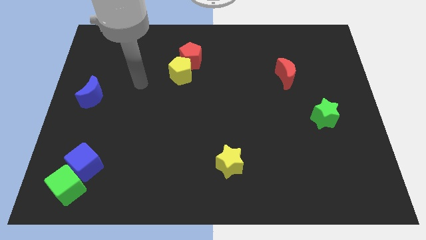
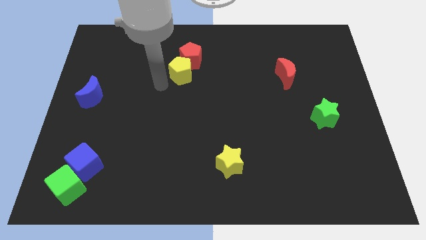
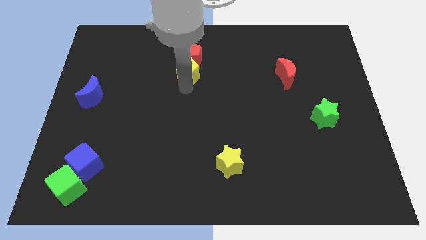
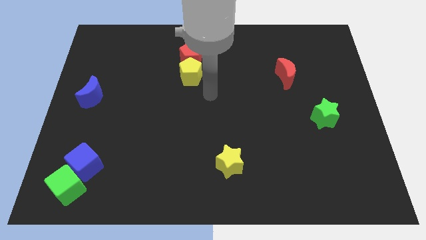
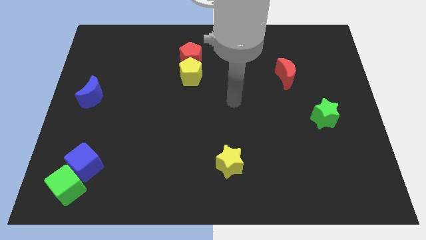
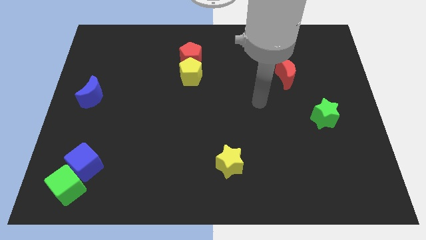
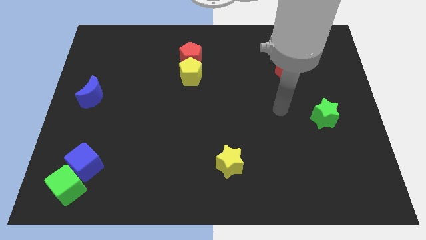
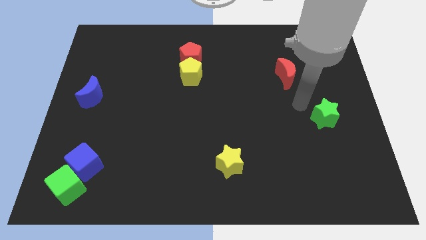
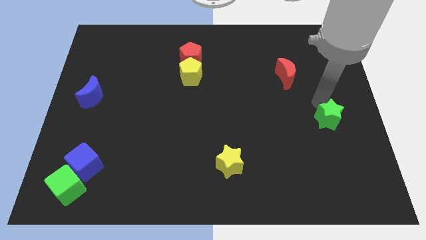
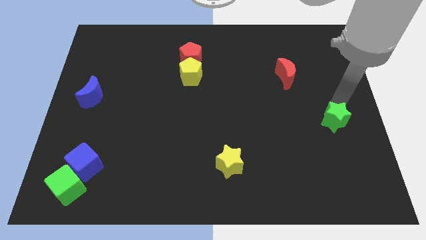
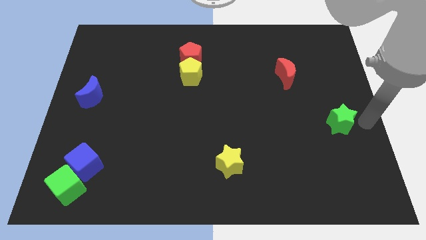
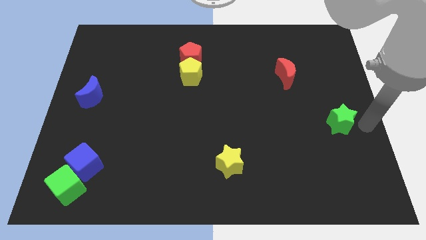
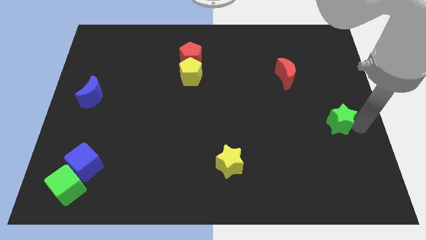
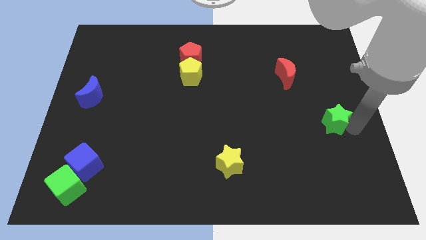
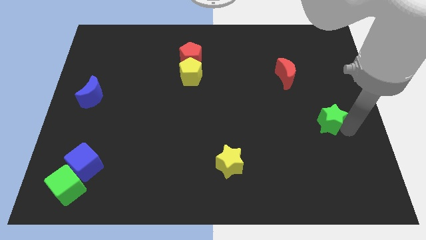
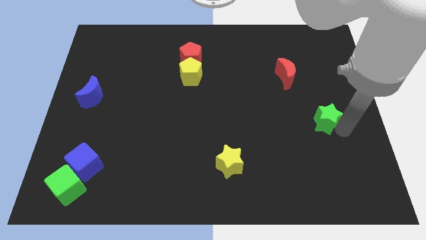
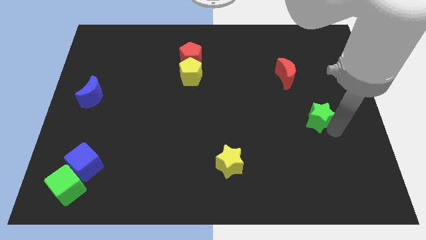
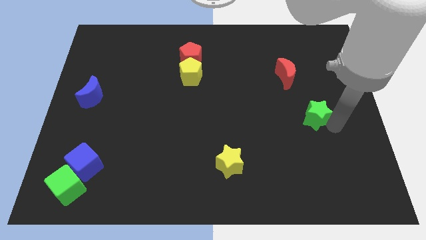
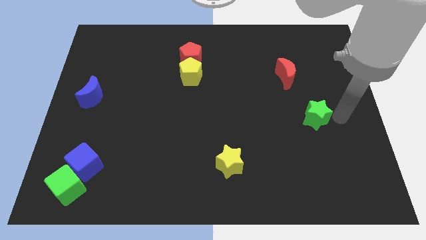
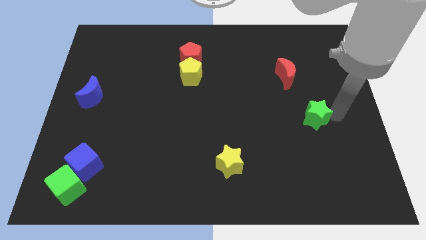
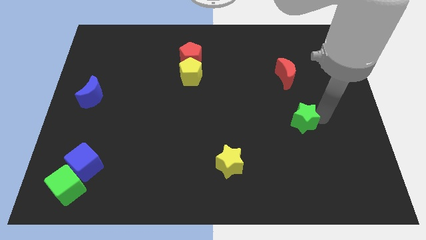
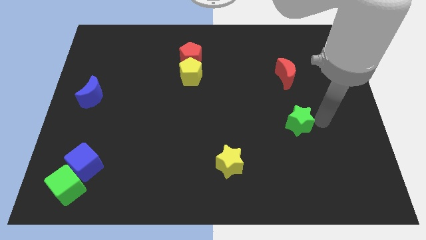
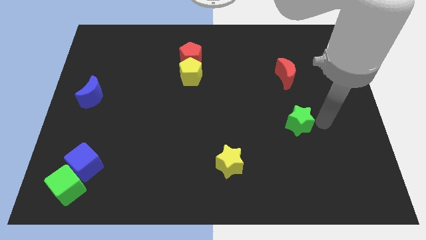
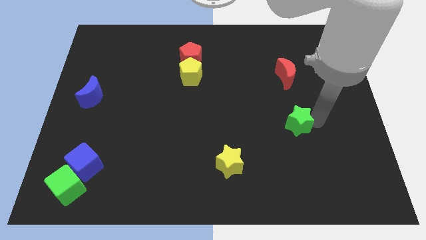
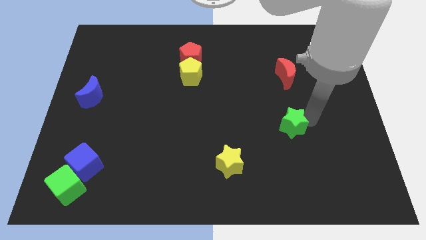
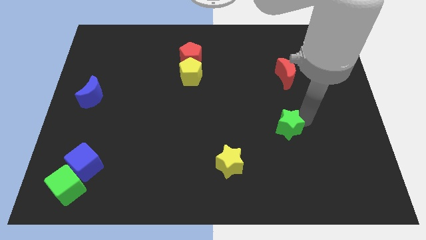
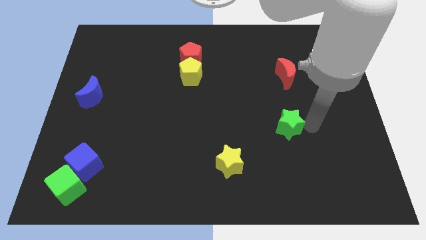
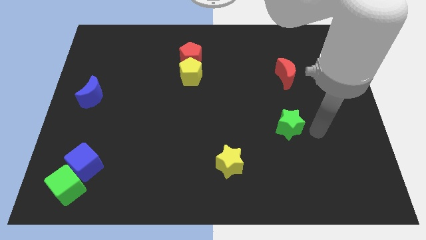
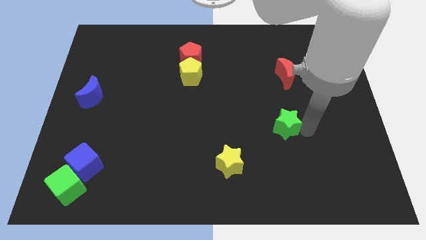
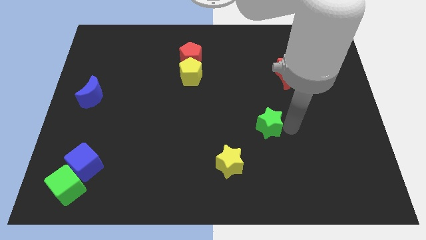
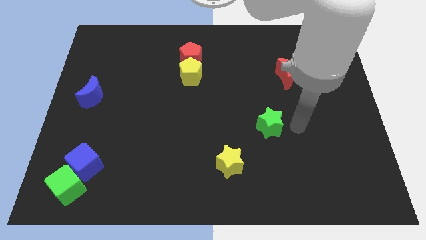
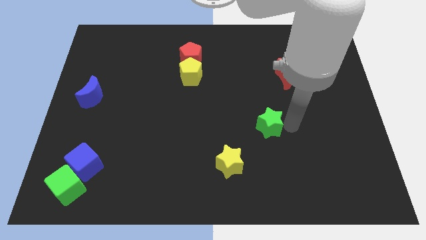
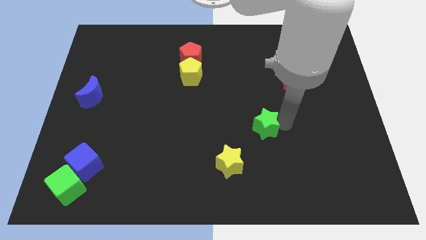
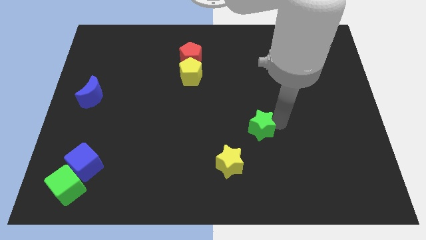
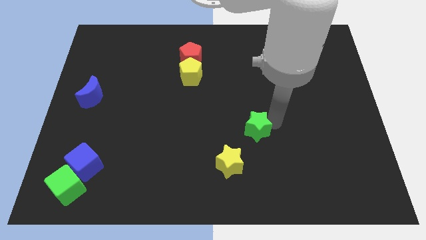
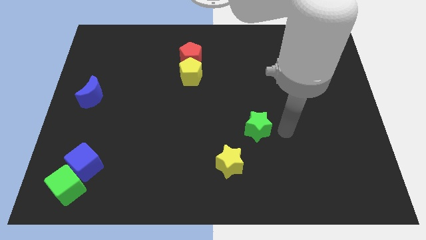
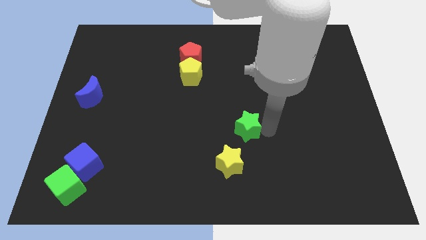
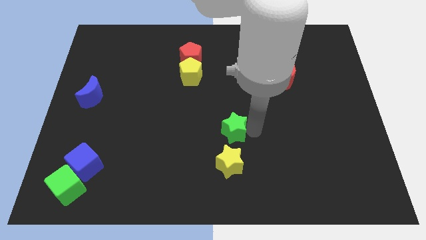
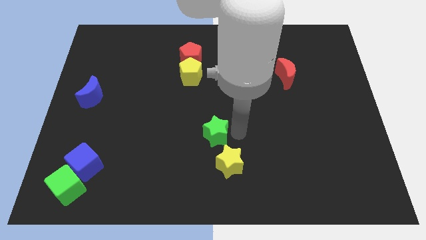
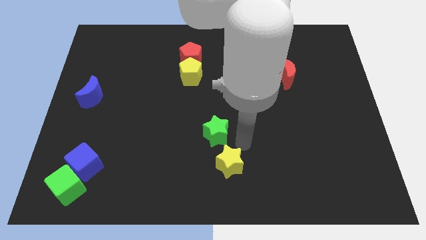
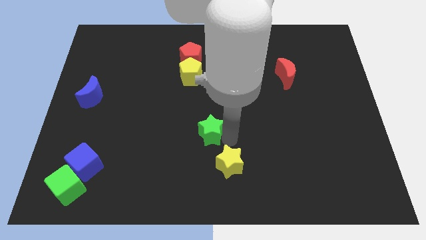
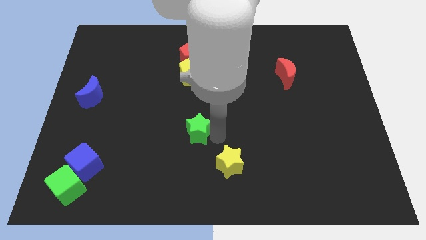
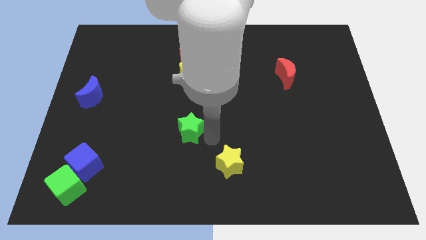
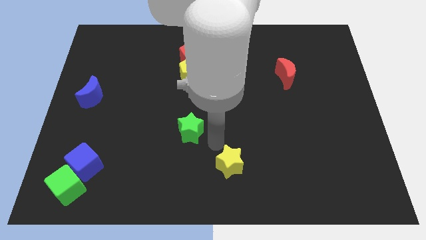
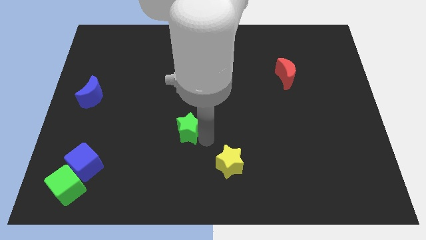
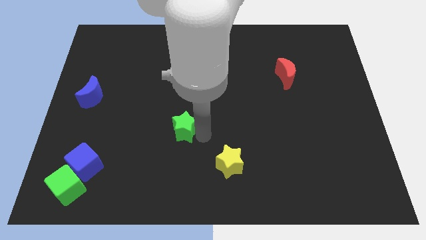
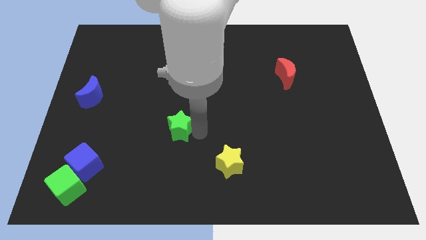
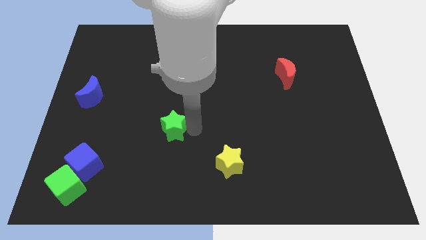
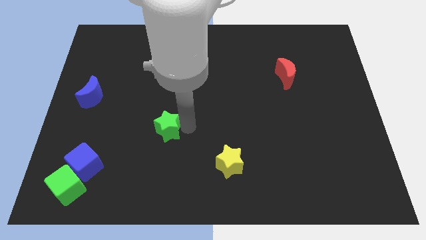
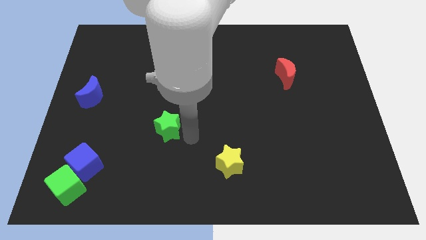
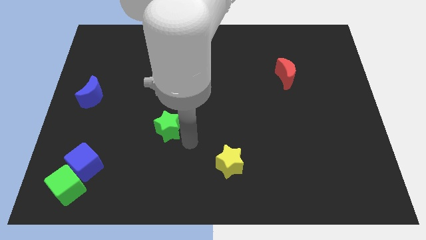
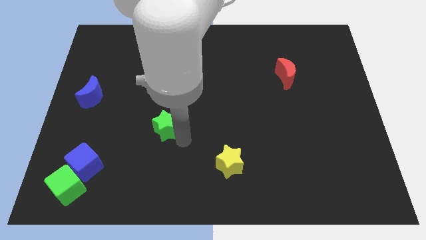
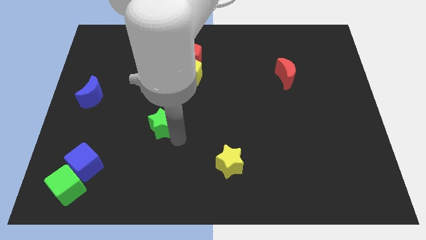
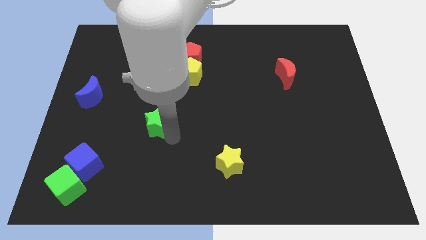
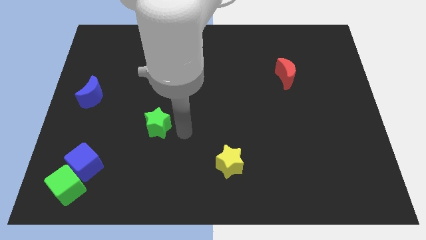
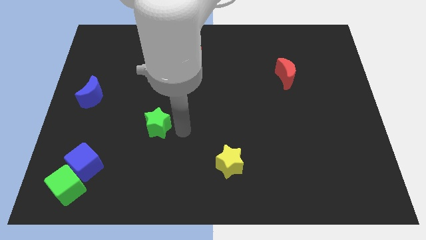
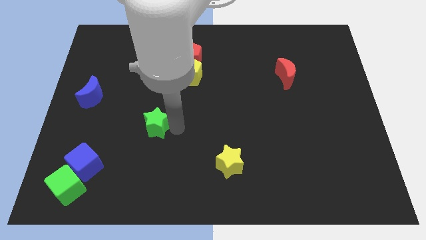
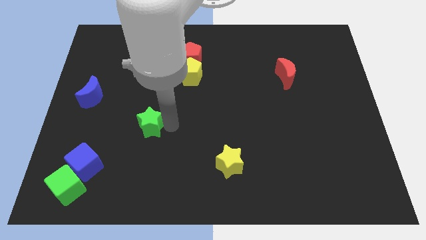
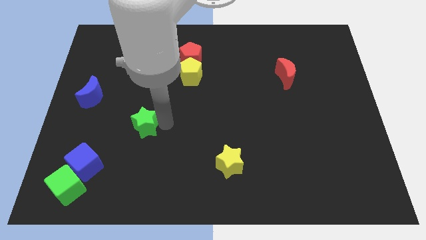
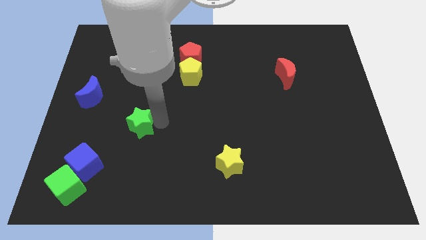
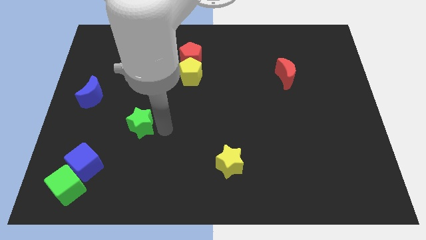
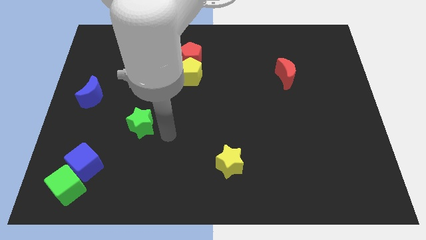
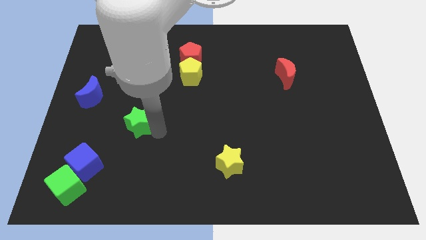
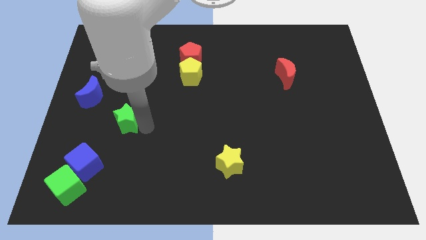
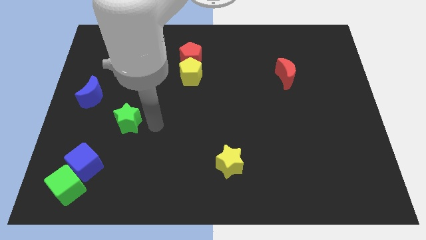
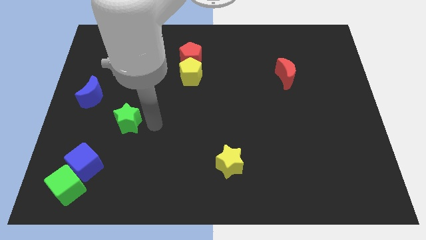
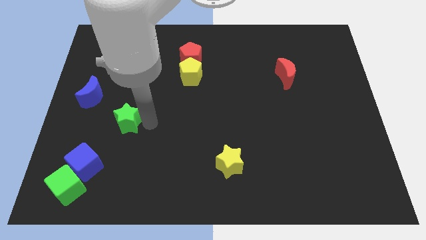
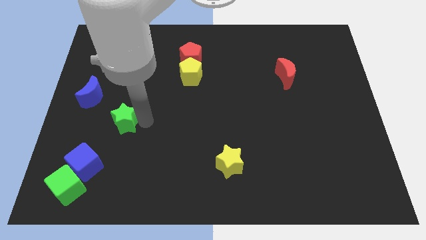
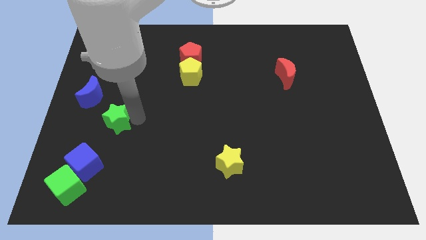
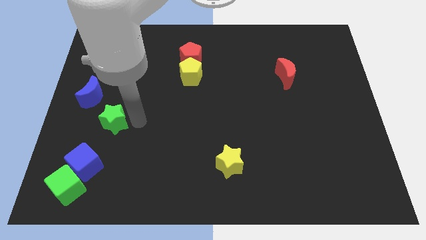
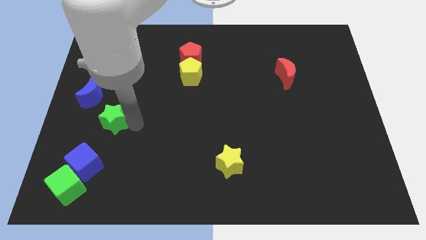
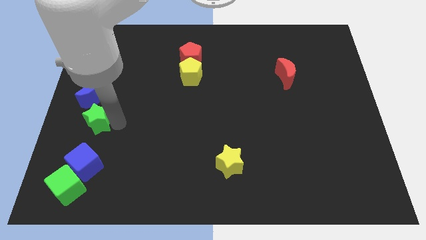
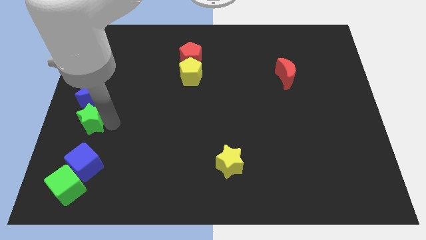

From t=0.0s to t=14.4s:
put the green star to the left side

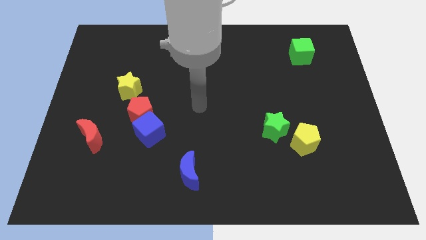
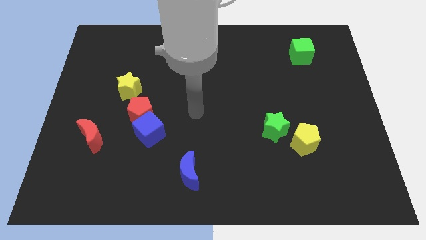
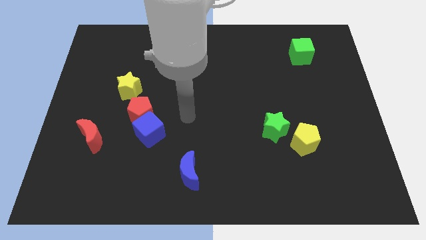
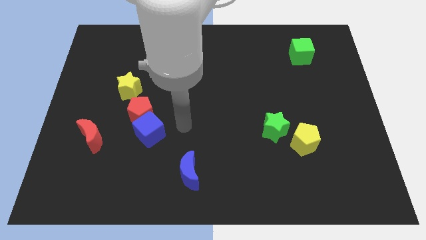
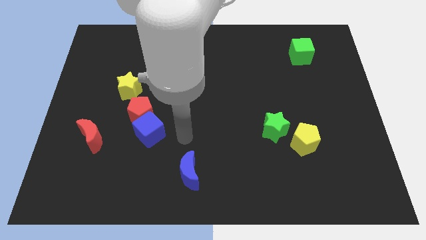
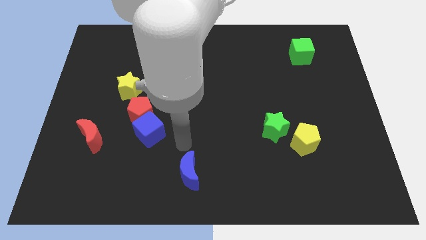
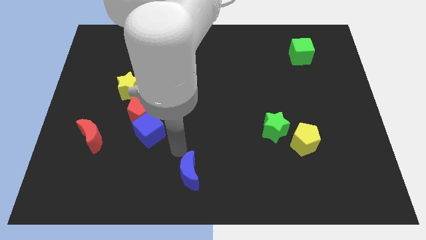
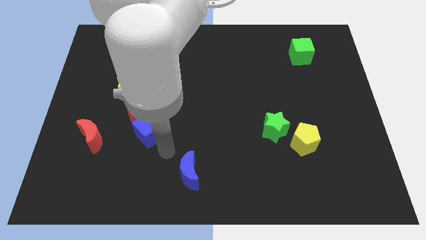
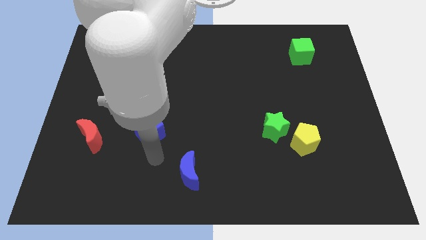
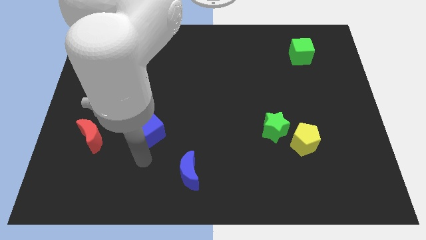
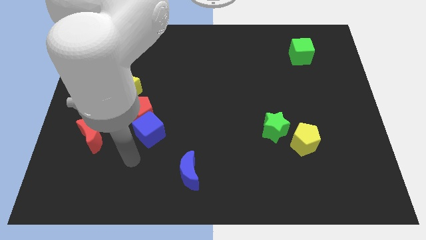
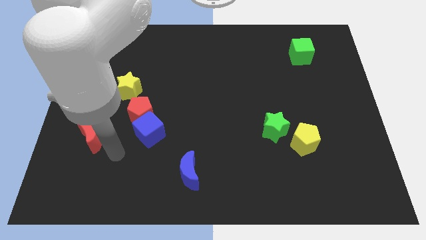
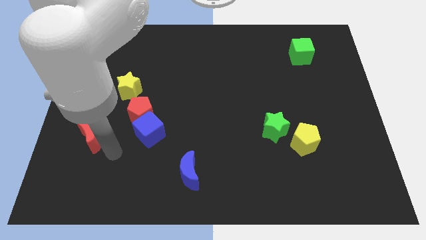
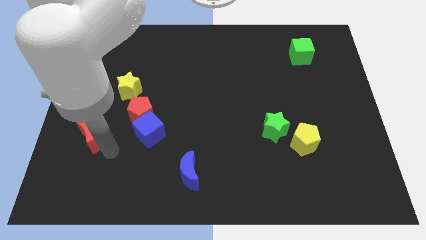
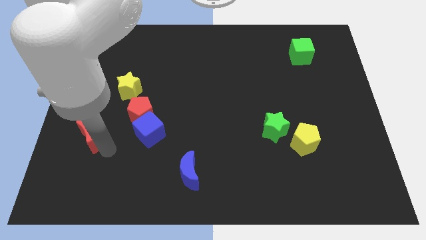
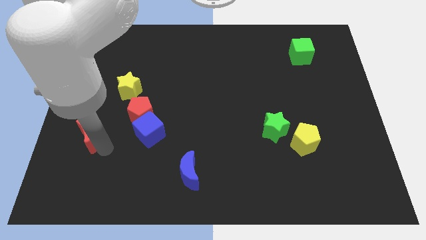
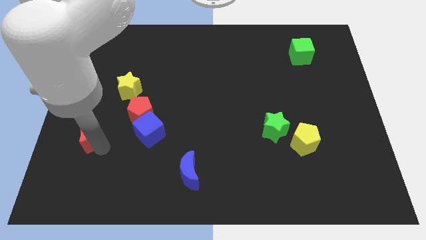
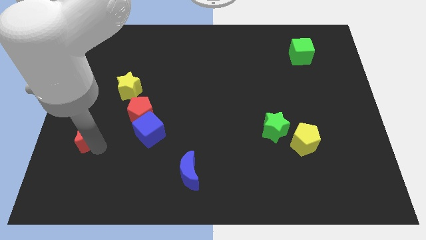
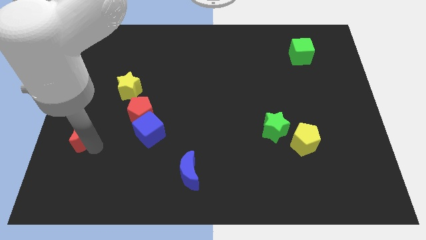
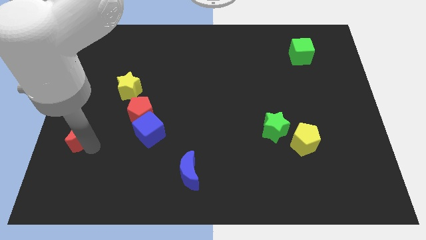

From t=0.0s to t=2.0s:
move the red moon to the left side
